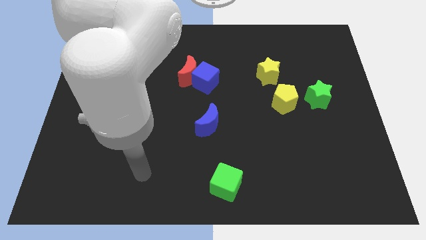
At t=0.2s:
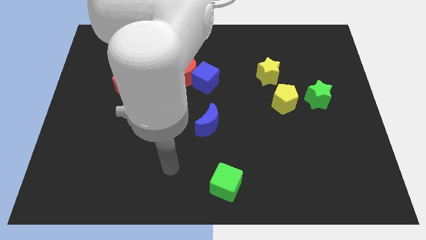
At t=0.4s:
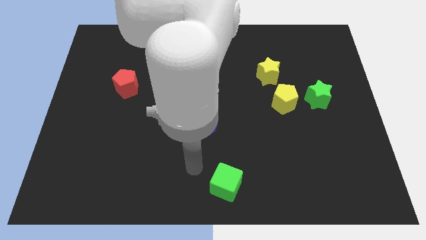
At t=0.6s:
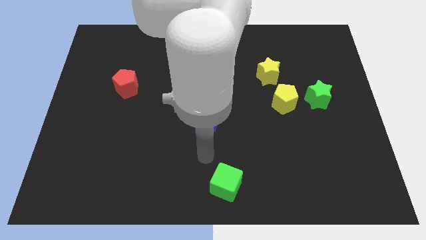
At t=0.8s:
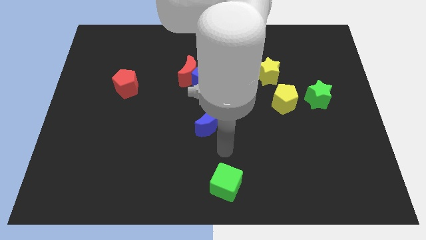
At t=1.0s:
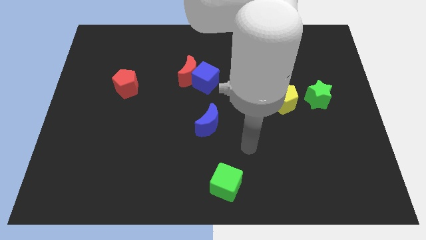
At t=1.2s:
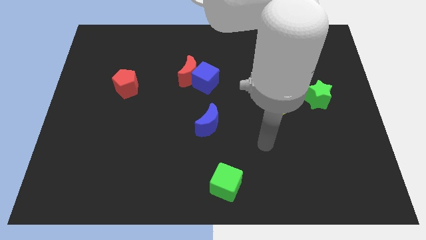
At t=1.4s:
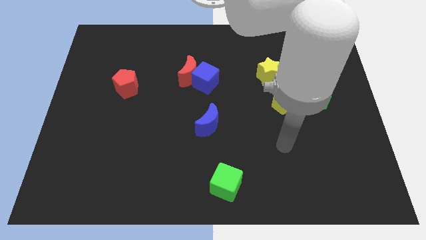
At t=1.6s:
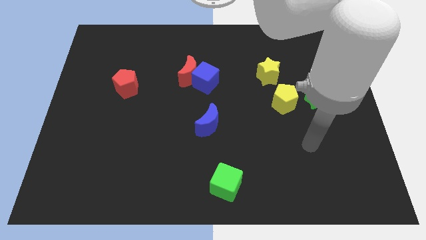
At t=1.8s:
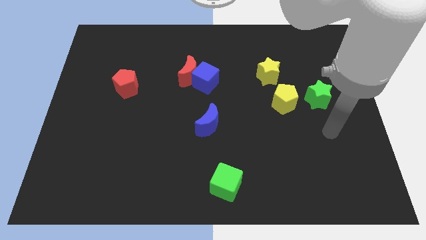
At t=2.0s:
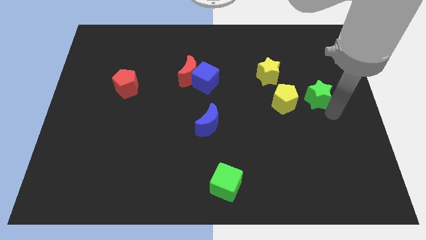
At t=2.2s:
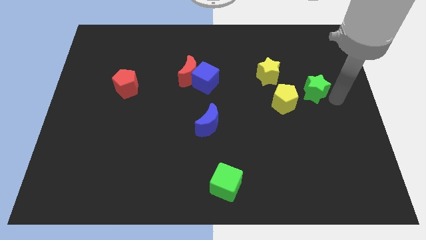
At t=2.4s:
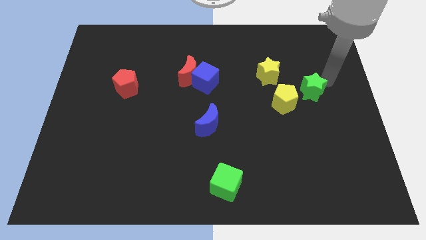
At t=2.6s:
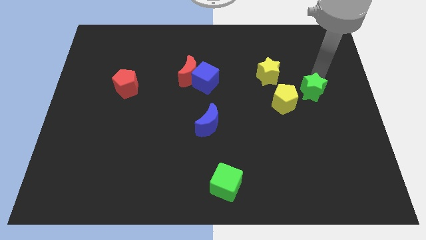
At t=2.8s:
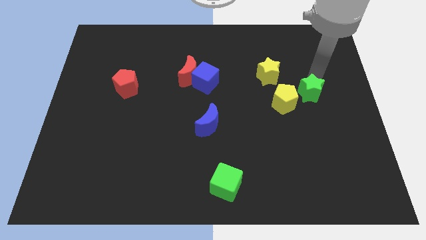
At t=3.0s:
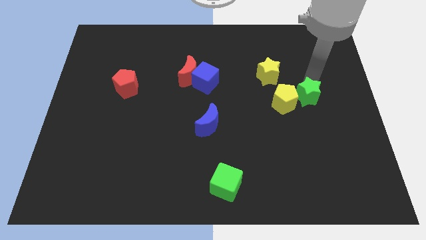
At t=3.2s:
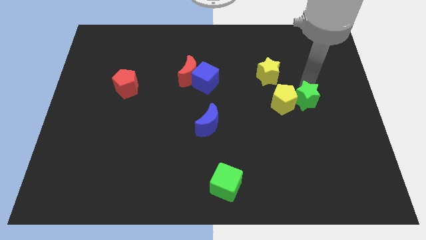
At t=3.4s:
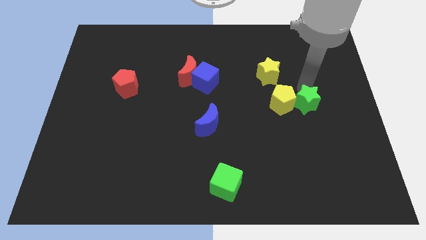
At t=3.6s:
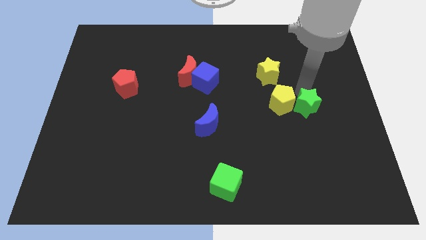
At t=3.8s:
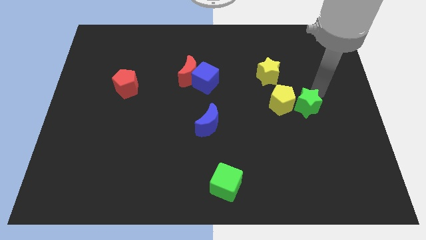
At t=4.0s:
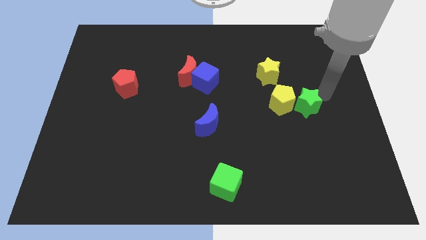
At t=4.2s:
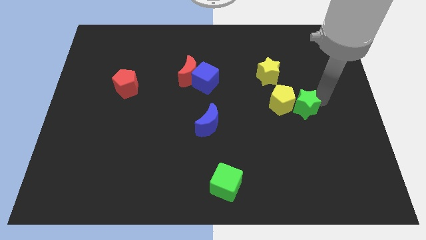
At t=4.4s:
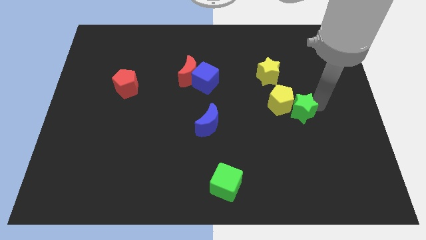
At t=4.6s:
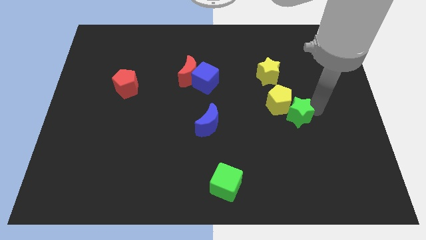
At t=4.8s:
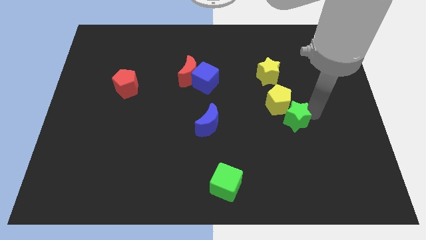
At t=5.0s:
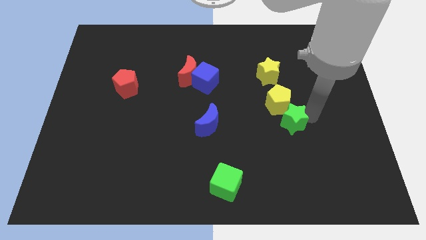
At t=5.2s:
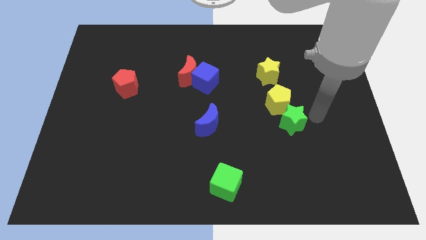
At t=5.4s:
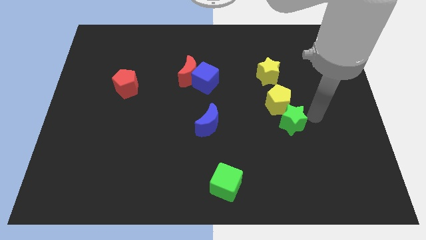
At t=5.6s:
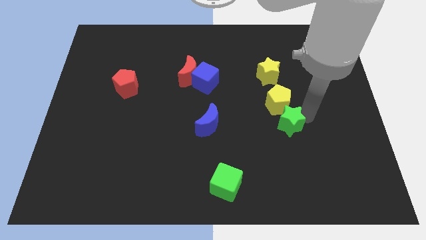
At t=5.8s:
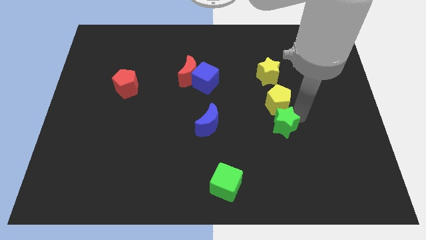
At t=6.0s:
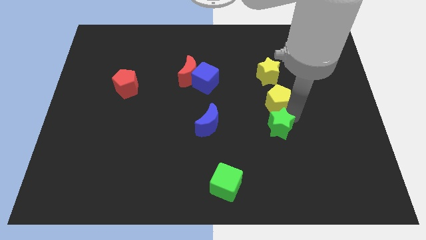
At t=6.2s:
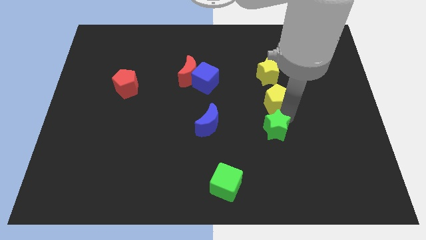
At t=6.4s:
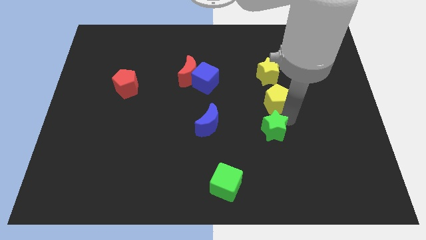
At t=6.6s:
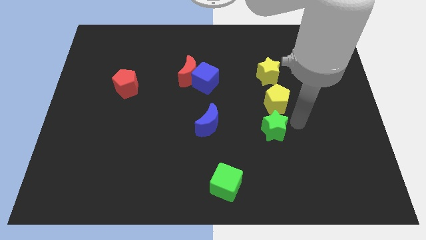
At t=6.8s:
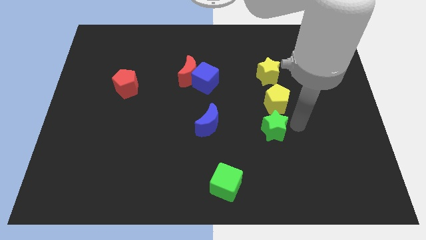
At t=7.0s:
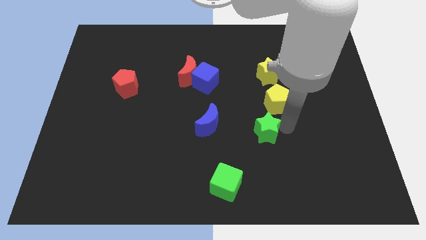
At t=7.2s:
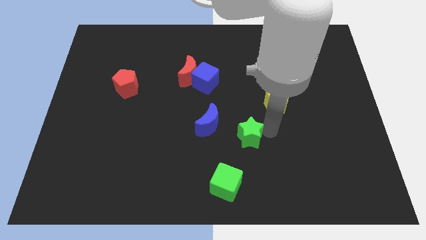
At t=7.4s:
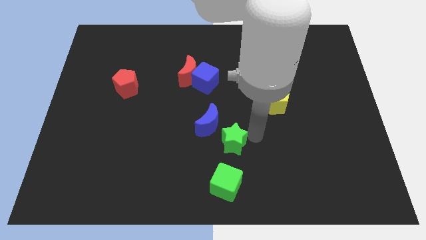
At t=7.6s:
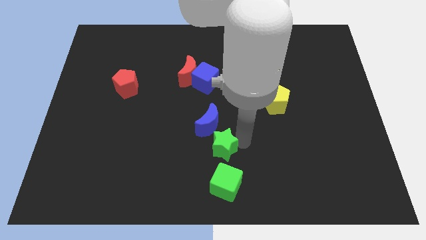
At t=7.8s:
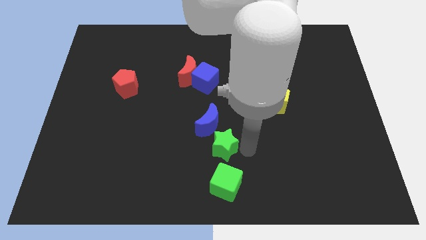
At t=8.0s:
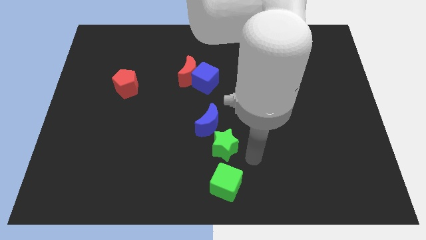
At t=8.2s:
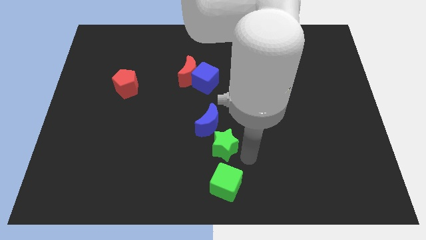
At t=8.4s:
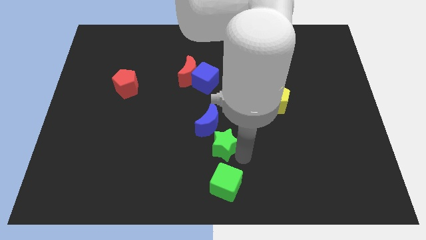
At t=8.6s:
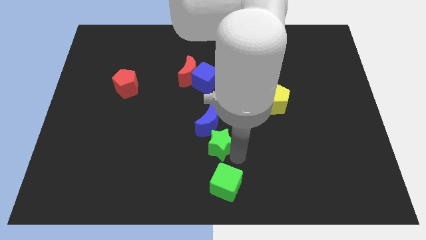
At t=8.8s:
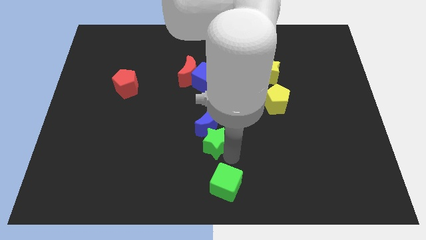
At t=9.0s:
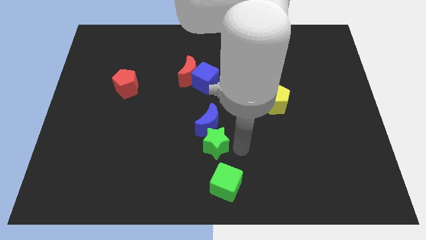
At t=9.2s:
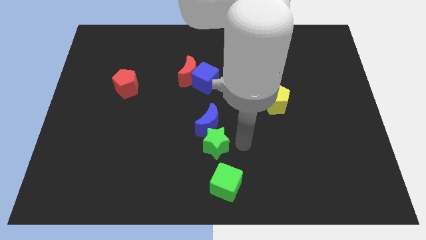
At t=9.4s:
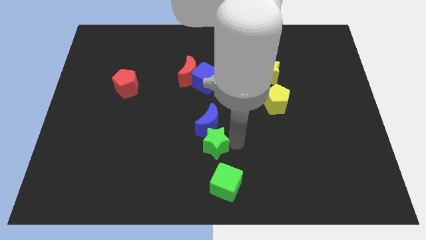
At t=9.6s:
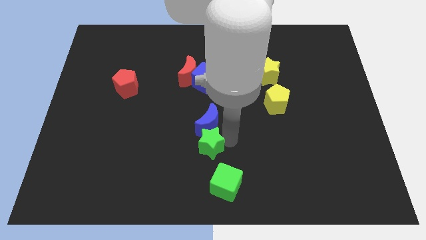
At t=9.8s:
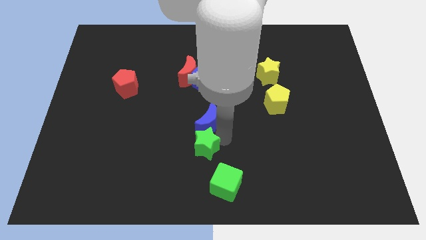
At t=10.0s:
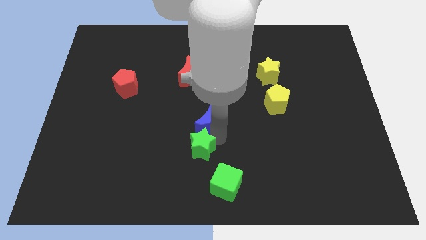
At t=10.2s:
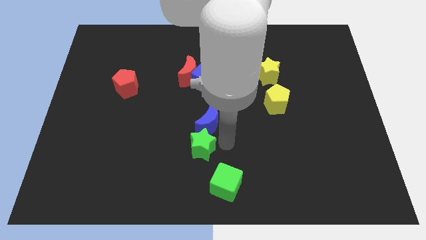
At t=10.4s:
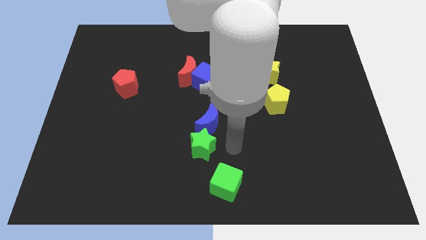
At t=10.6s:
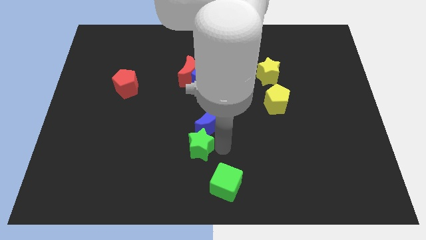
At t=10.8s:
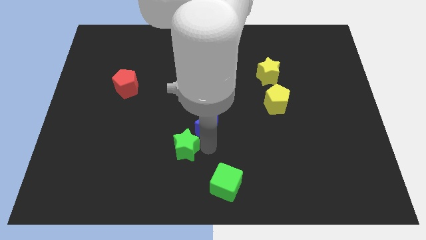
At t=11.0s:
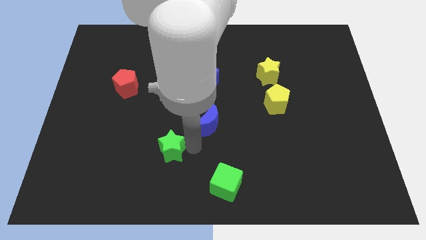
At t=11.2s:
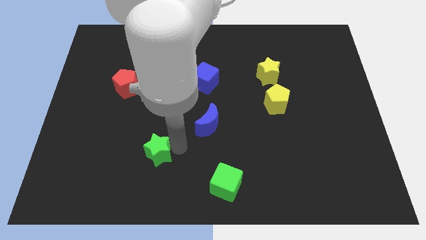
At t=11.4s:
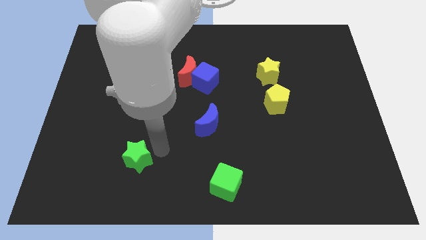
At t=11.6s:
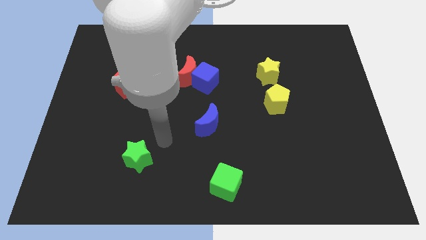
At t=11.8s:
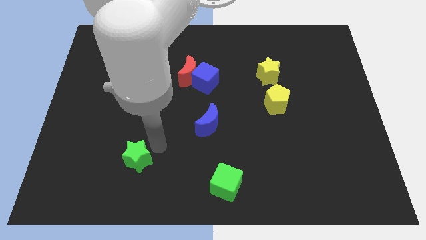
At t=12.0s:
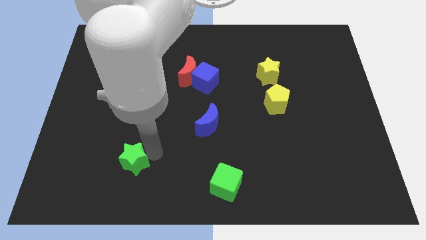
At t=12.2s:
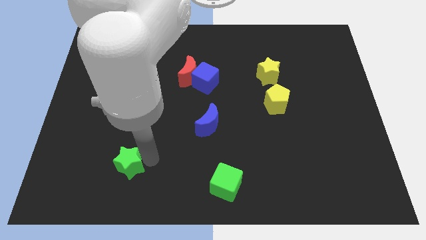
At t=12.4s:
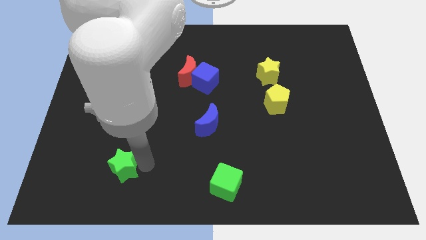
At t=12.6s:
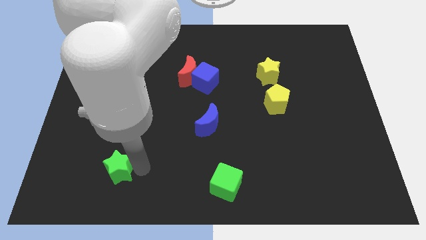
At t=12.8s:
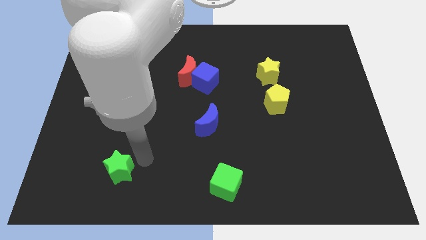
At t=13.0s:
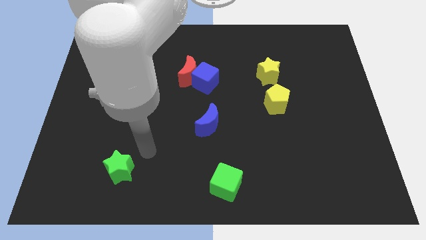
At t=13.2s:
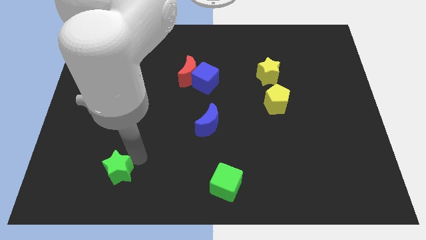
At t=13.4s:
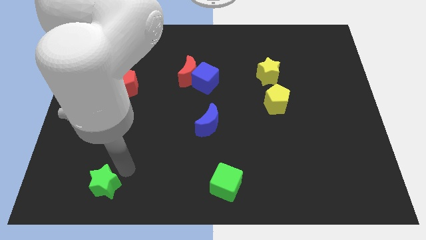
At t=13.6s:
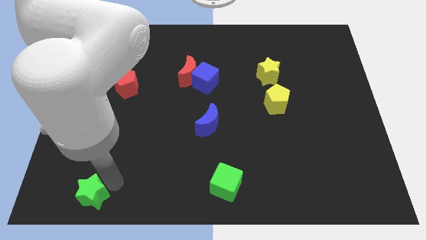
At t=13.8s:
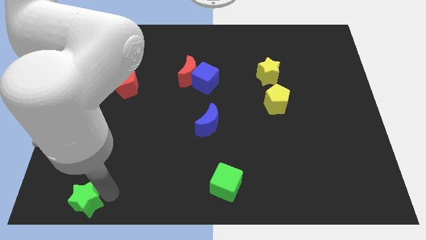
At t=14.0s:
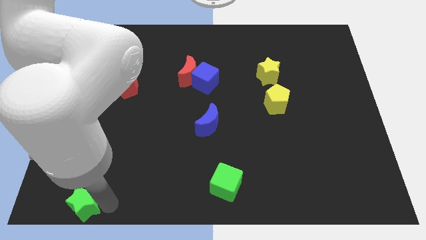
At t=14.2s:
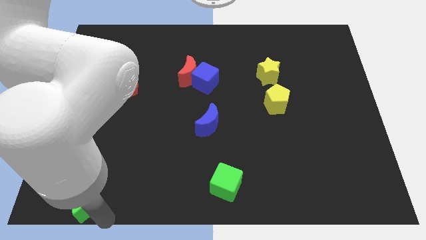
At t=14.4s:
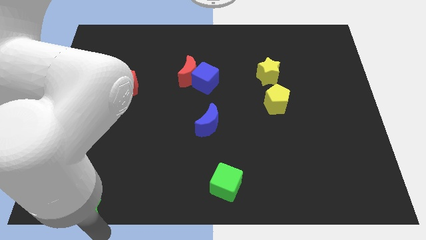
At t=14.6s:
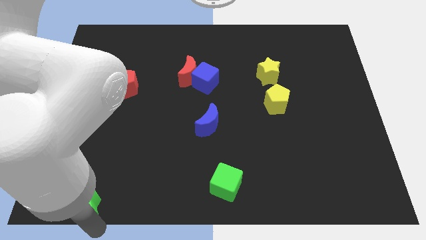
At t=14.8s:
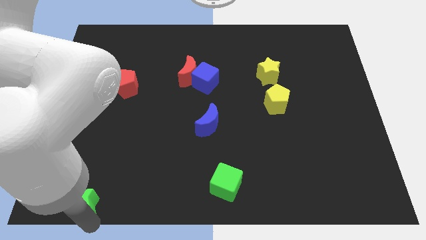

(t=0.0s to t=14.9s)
put the green star to the lower left corner
